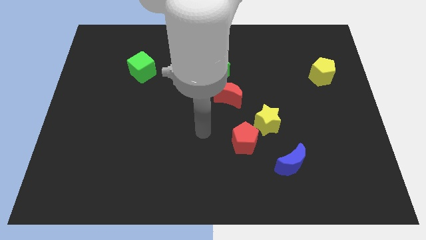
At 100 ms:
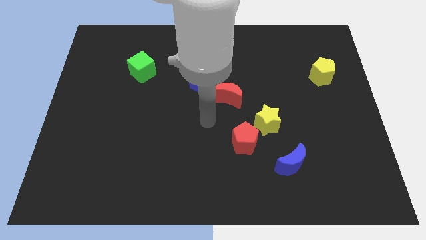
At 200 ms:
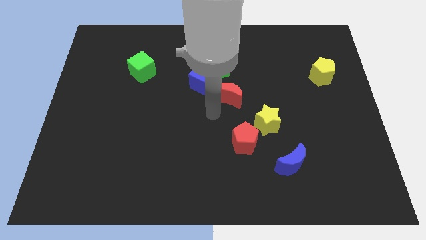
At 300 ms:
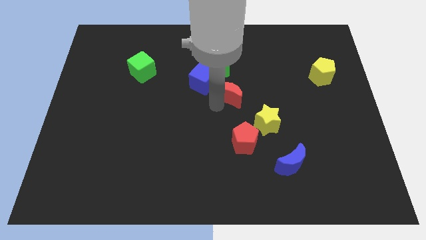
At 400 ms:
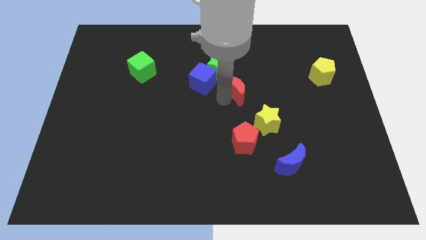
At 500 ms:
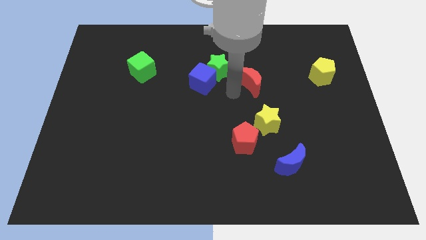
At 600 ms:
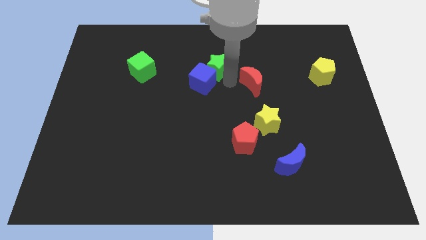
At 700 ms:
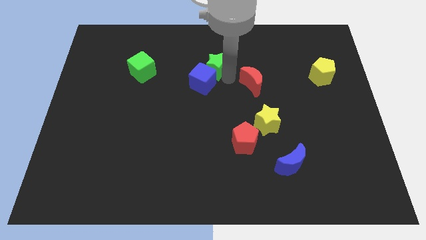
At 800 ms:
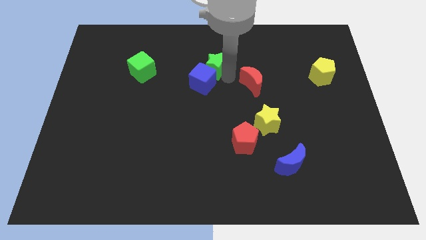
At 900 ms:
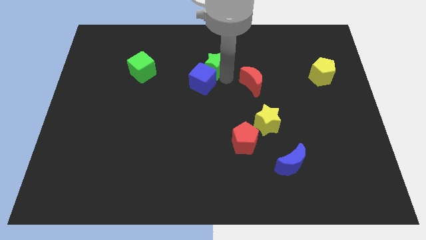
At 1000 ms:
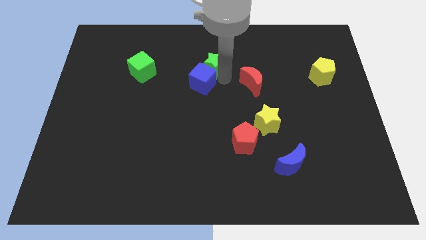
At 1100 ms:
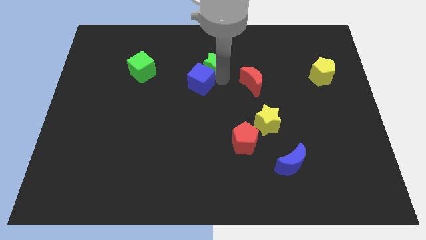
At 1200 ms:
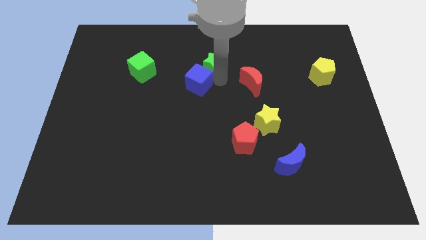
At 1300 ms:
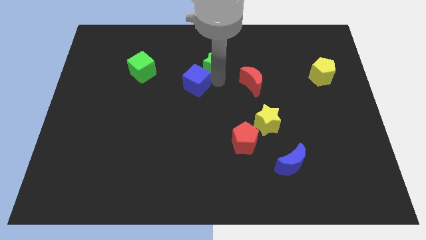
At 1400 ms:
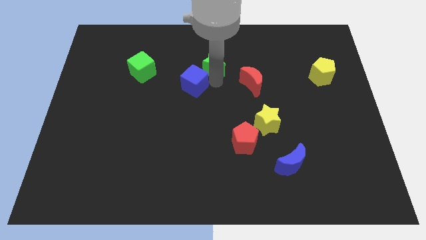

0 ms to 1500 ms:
pull the blue cube apart from the green star and red moon

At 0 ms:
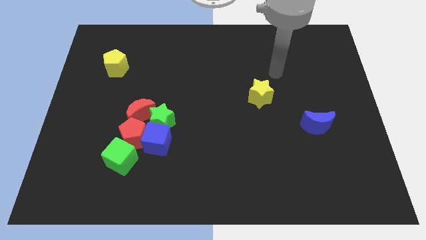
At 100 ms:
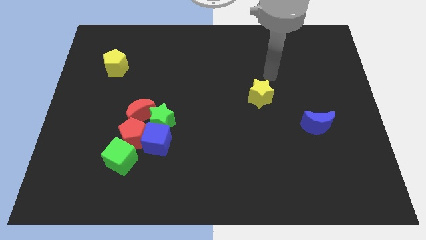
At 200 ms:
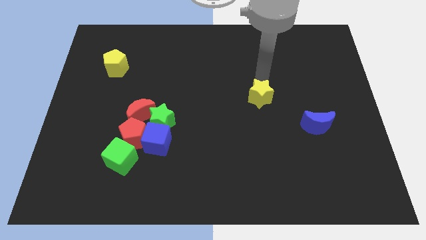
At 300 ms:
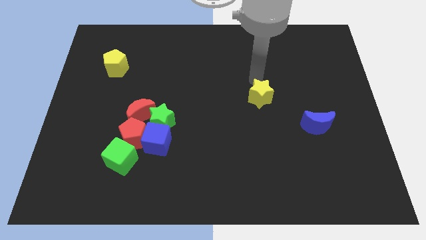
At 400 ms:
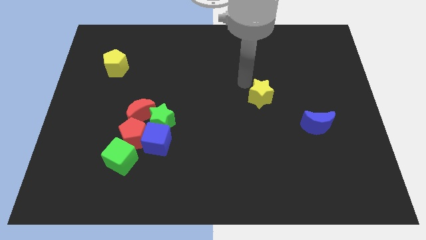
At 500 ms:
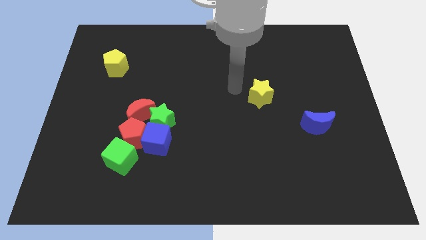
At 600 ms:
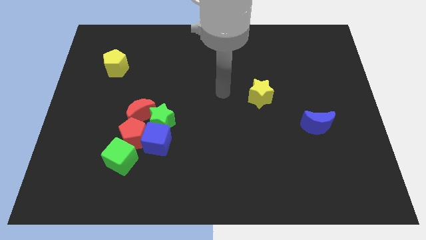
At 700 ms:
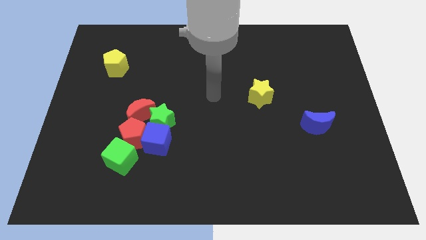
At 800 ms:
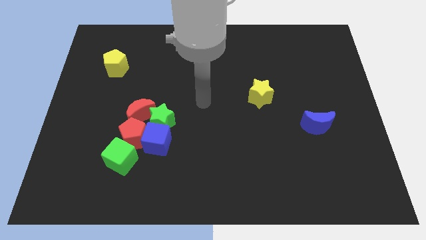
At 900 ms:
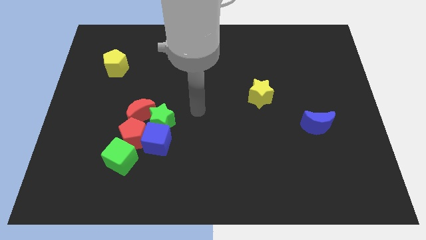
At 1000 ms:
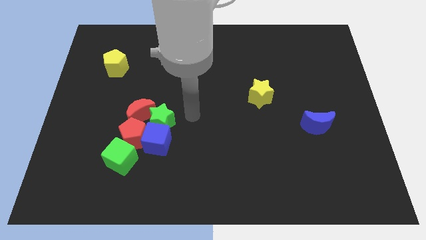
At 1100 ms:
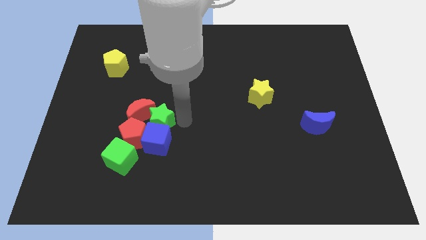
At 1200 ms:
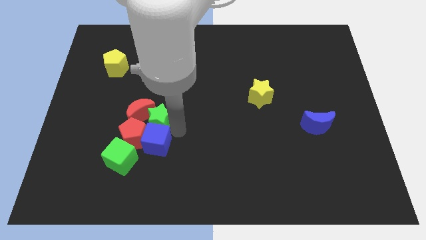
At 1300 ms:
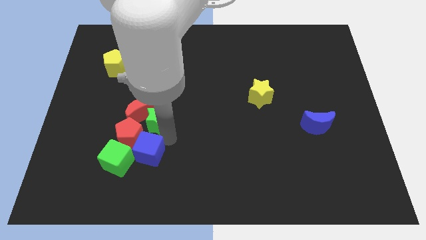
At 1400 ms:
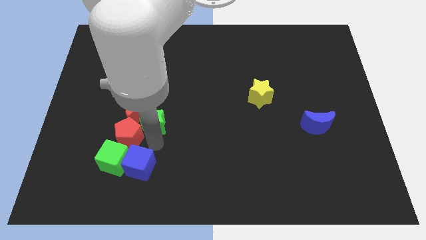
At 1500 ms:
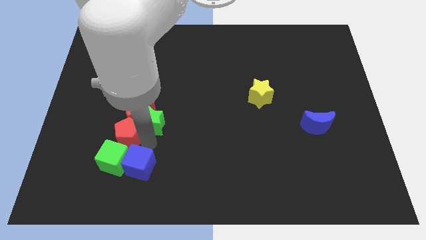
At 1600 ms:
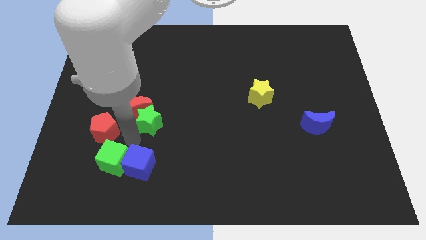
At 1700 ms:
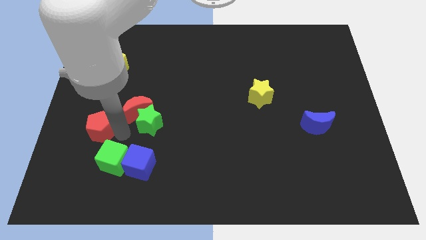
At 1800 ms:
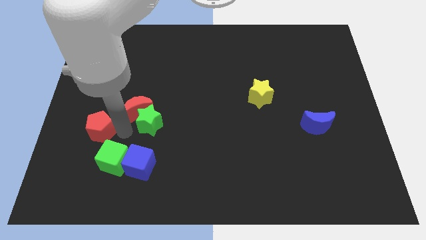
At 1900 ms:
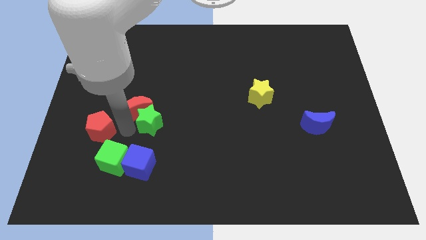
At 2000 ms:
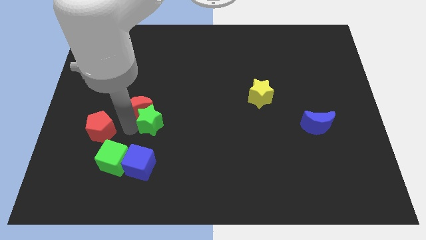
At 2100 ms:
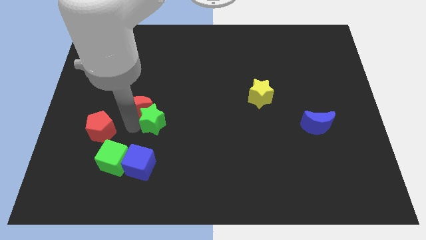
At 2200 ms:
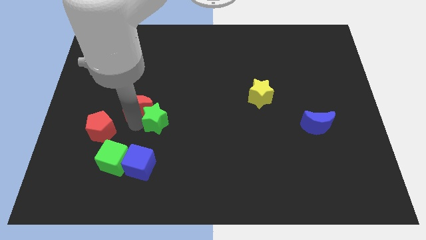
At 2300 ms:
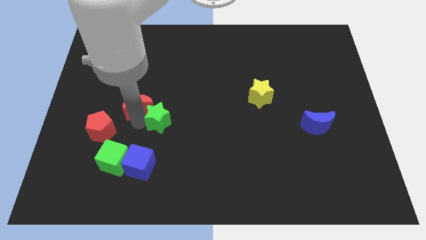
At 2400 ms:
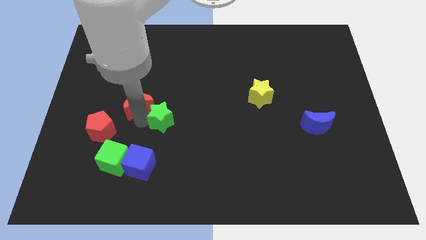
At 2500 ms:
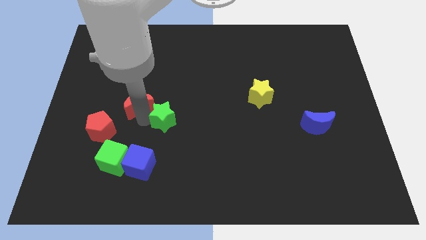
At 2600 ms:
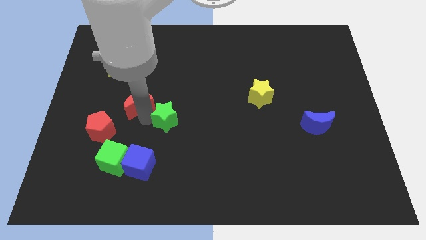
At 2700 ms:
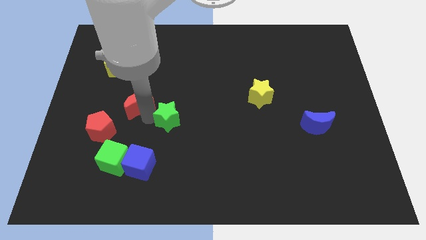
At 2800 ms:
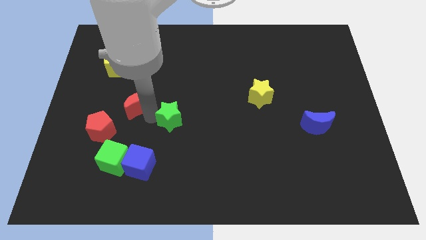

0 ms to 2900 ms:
separate the green star from the clump

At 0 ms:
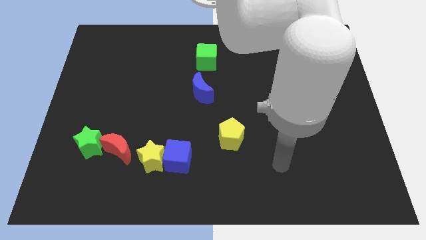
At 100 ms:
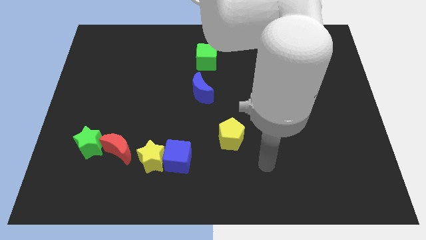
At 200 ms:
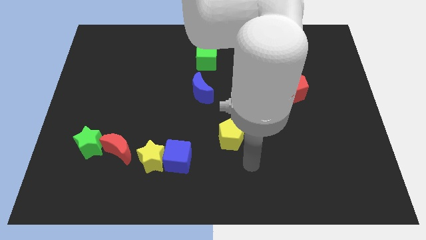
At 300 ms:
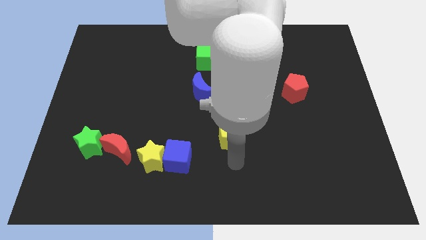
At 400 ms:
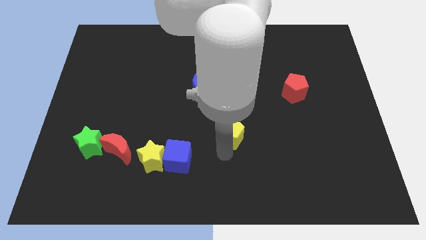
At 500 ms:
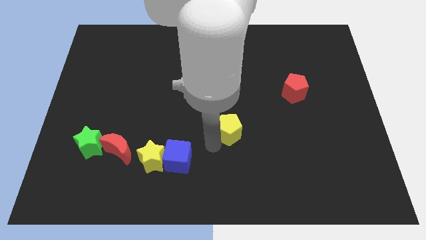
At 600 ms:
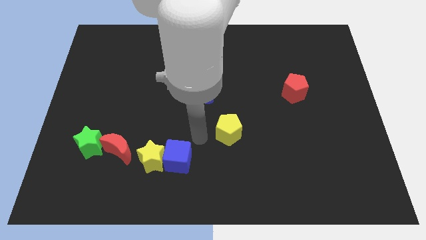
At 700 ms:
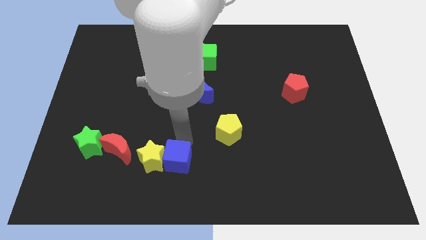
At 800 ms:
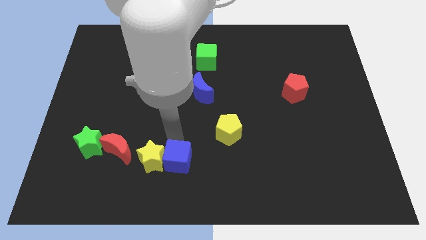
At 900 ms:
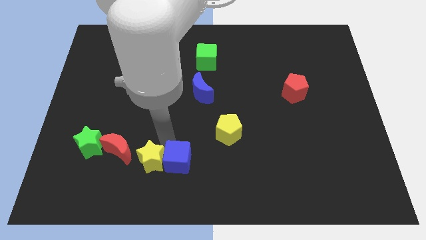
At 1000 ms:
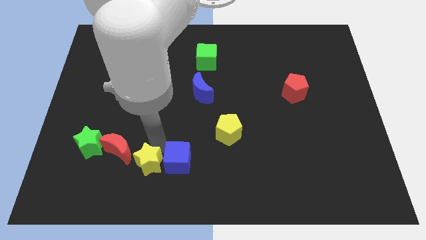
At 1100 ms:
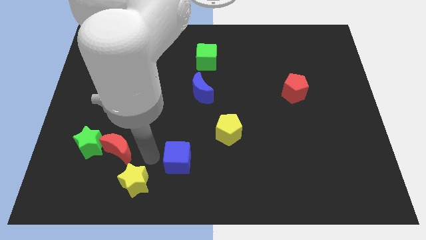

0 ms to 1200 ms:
separate the blue cube from the yellow star

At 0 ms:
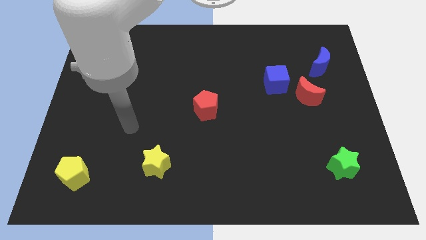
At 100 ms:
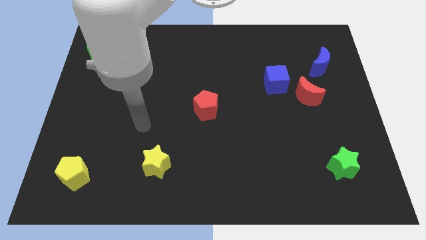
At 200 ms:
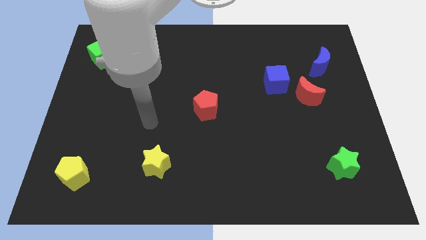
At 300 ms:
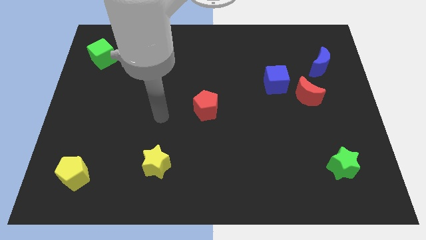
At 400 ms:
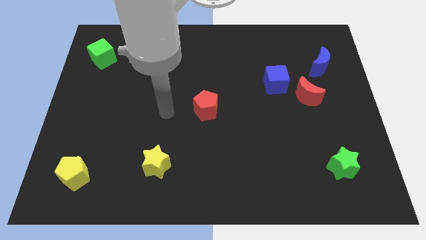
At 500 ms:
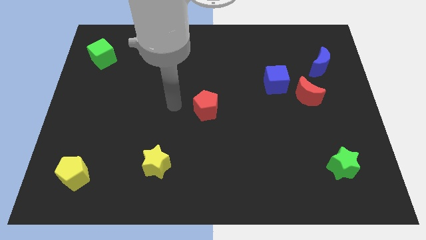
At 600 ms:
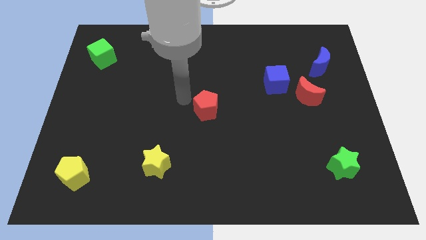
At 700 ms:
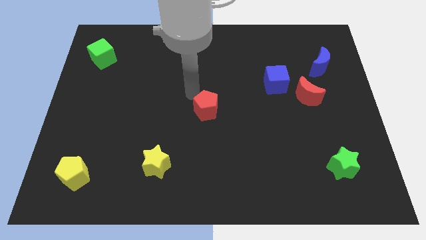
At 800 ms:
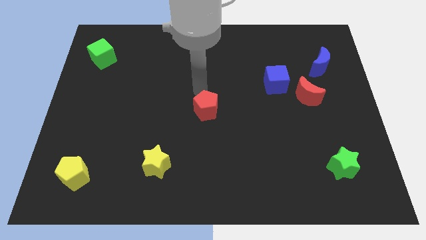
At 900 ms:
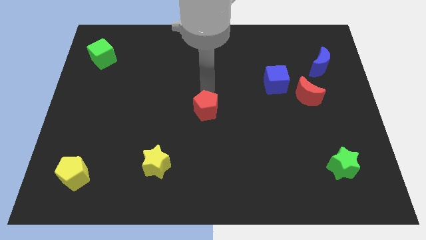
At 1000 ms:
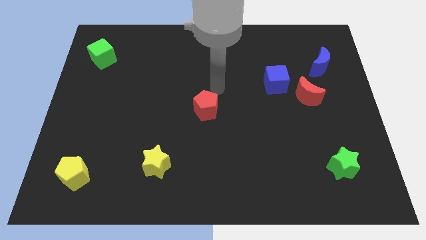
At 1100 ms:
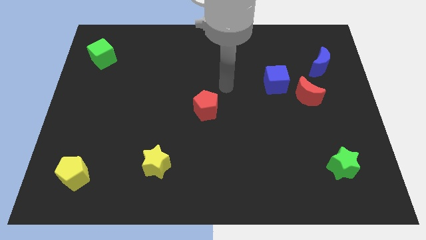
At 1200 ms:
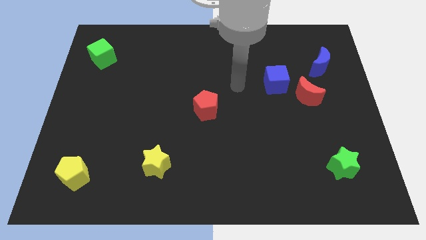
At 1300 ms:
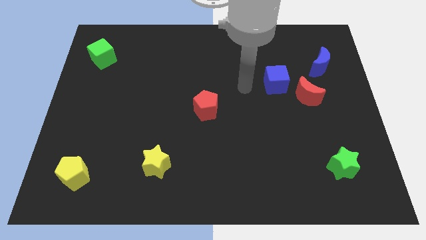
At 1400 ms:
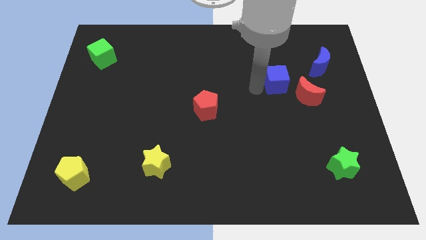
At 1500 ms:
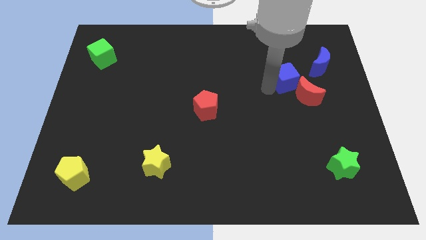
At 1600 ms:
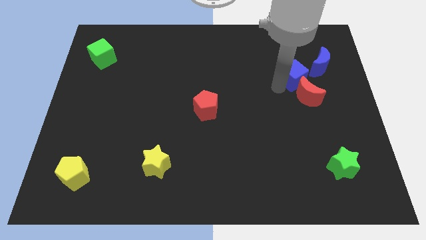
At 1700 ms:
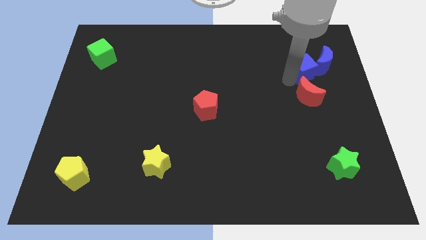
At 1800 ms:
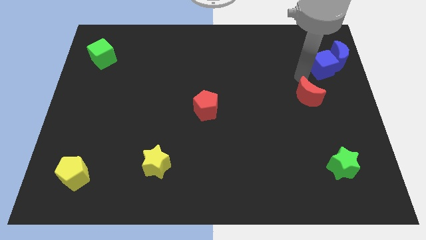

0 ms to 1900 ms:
pull the red moon apart from the blue cube

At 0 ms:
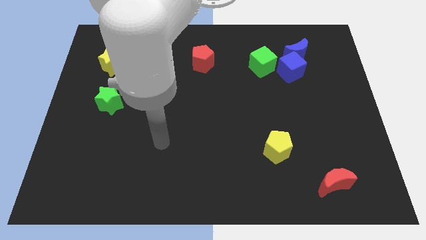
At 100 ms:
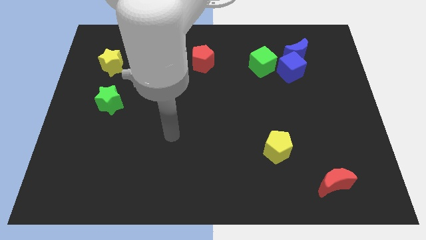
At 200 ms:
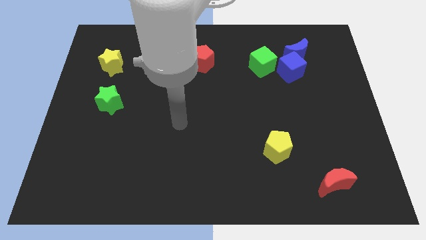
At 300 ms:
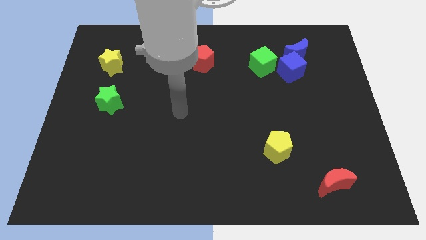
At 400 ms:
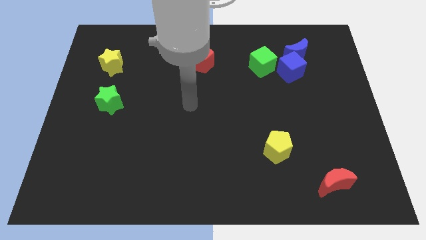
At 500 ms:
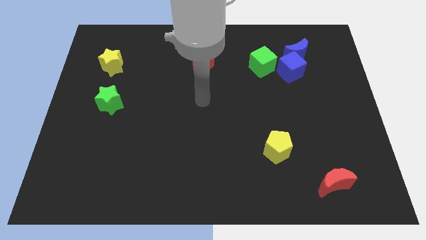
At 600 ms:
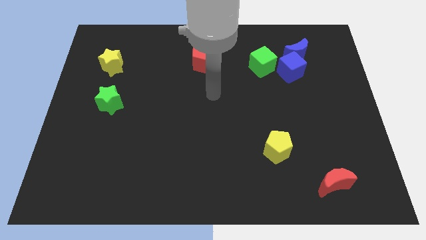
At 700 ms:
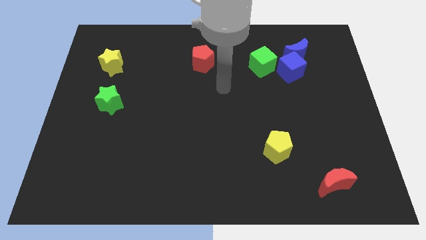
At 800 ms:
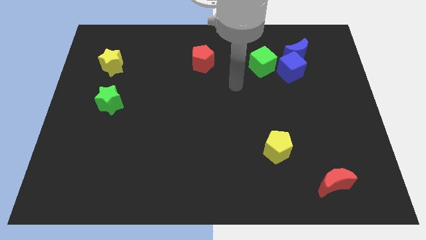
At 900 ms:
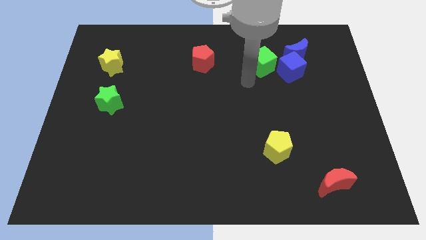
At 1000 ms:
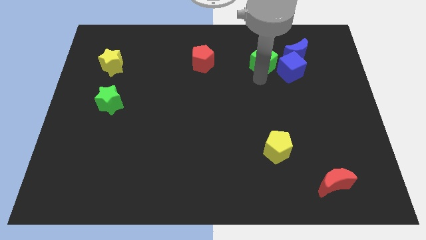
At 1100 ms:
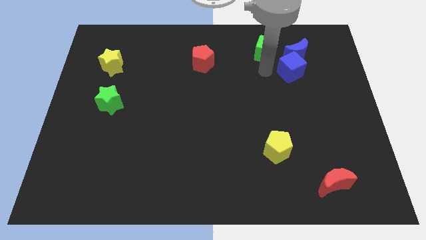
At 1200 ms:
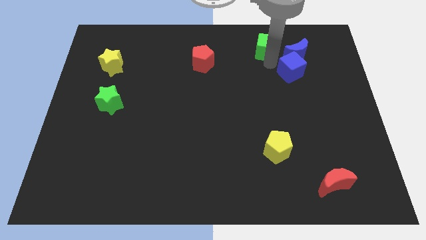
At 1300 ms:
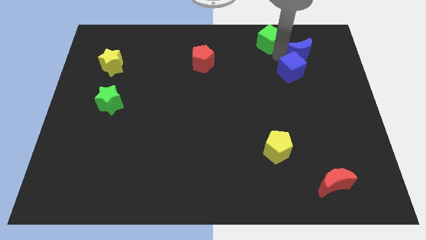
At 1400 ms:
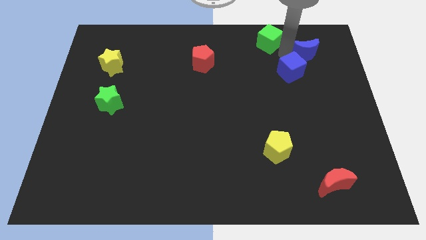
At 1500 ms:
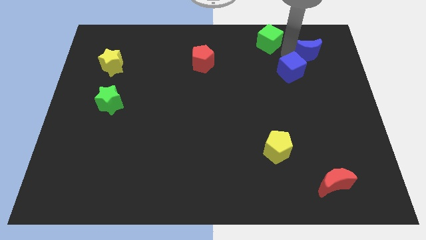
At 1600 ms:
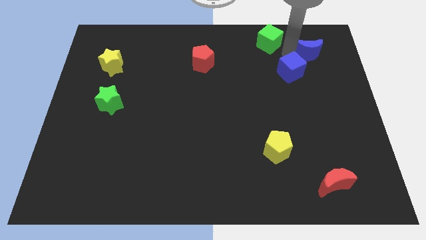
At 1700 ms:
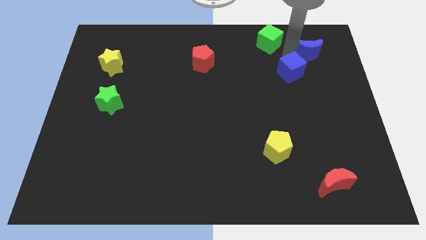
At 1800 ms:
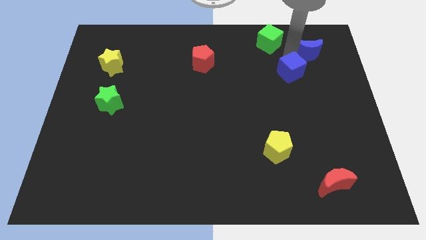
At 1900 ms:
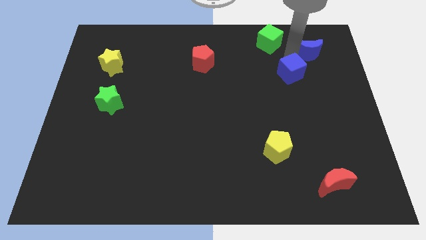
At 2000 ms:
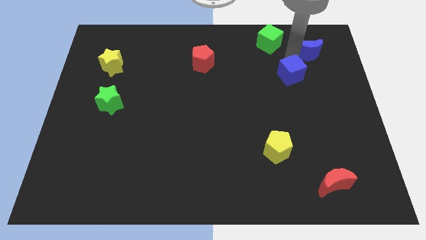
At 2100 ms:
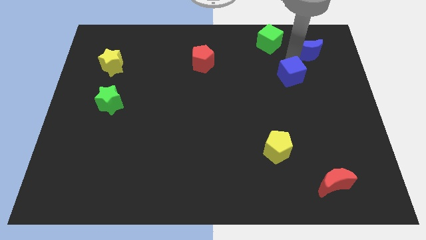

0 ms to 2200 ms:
move the blue cube away from the blue moon and green cube
